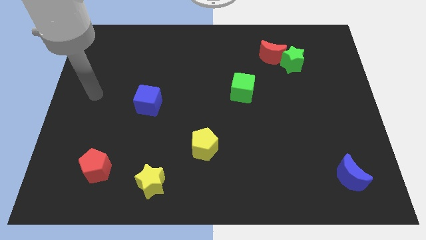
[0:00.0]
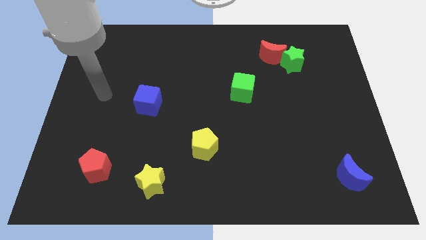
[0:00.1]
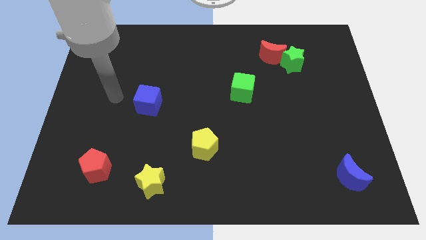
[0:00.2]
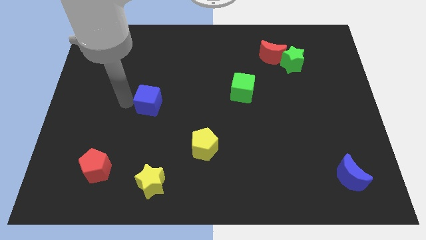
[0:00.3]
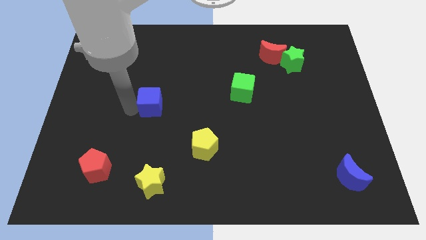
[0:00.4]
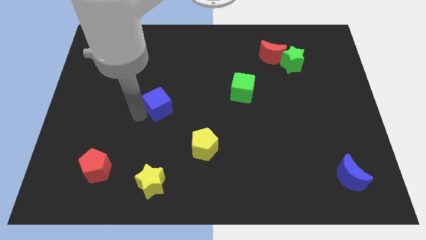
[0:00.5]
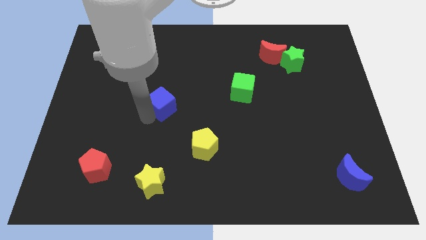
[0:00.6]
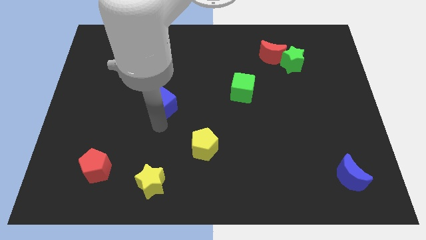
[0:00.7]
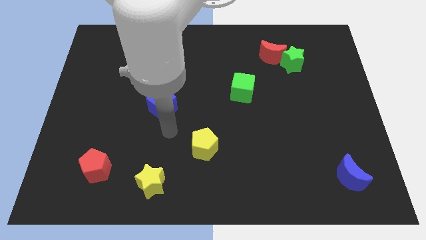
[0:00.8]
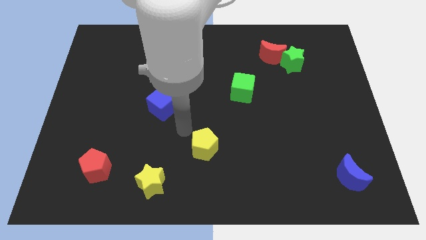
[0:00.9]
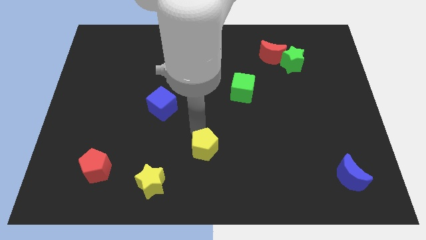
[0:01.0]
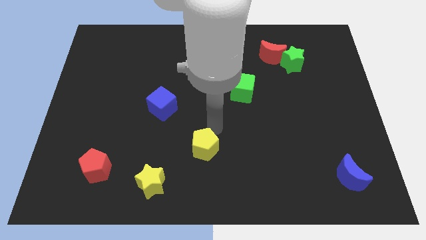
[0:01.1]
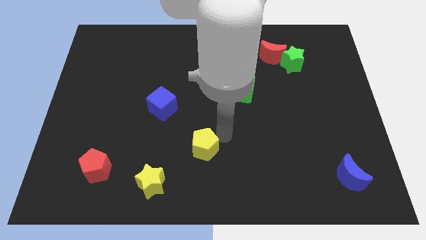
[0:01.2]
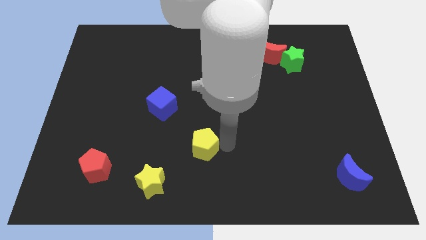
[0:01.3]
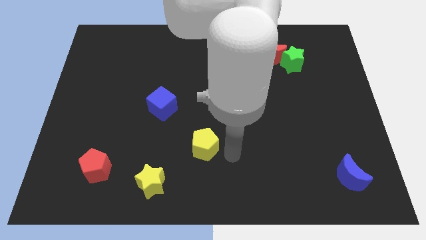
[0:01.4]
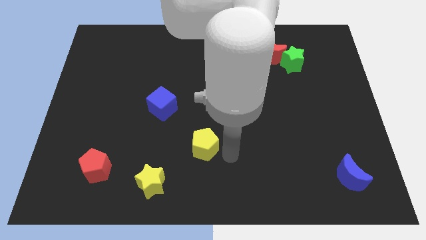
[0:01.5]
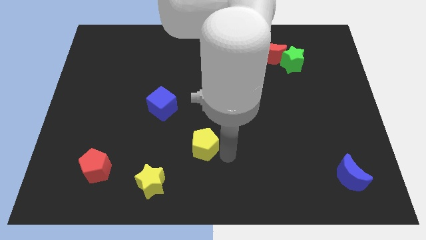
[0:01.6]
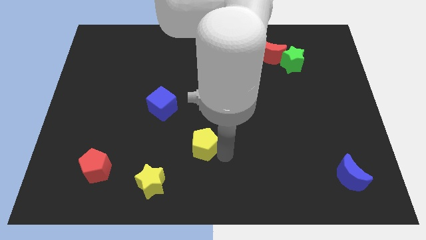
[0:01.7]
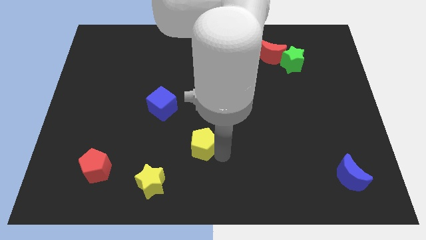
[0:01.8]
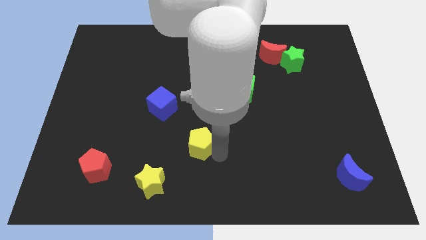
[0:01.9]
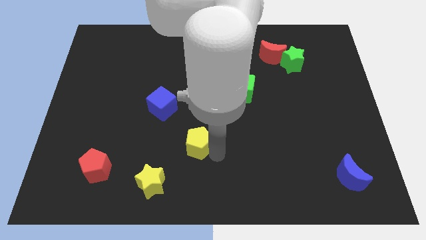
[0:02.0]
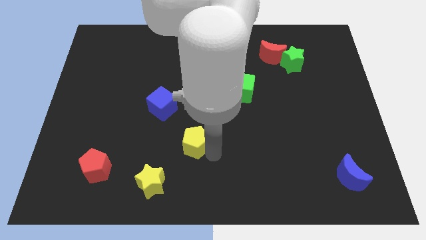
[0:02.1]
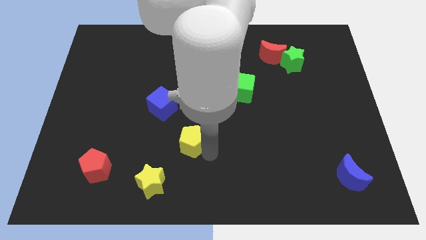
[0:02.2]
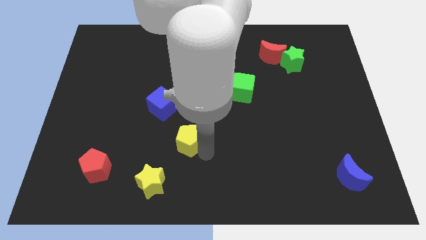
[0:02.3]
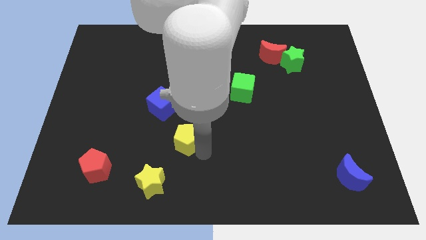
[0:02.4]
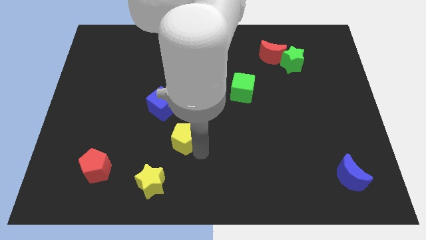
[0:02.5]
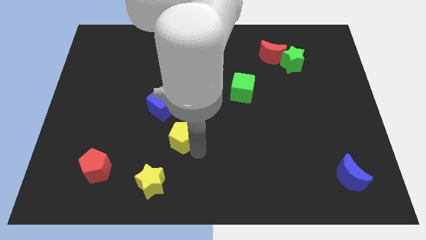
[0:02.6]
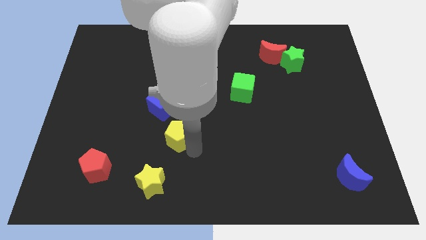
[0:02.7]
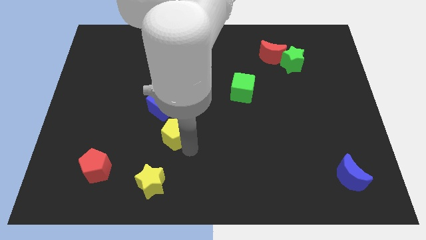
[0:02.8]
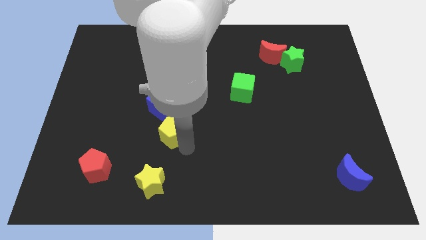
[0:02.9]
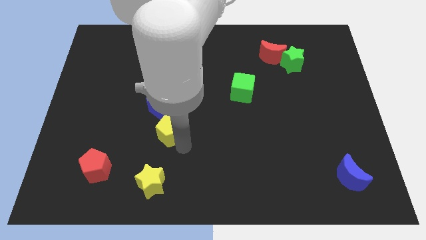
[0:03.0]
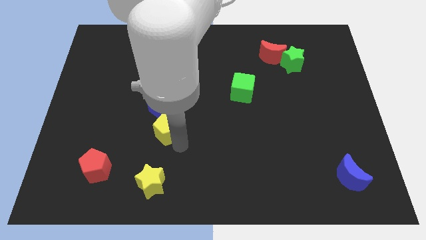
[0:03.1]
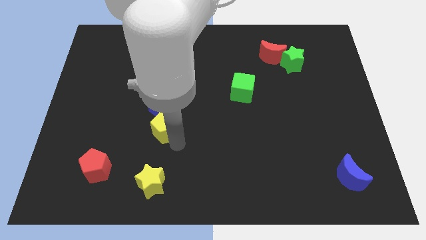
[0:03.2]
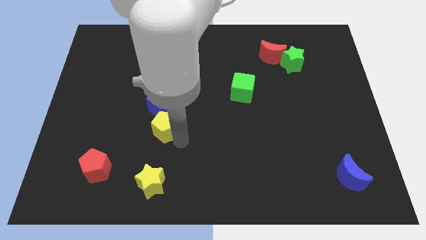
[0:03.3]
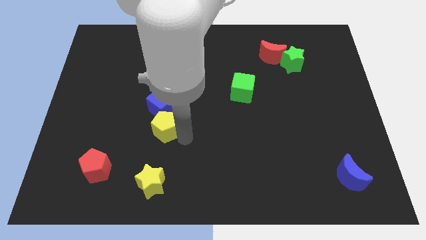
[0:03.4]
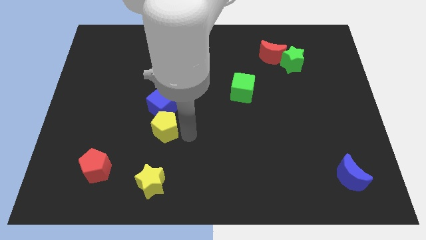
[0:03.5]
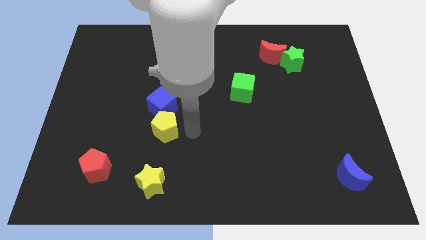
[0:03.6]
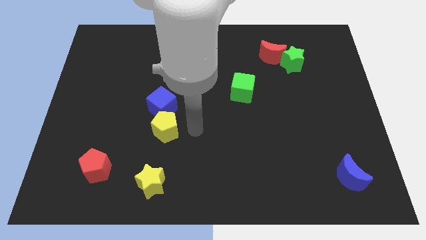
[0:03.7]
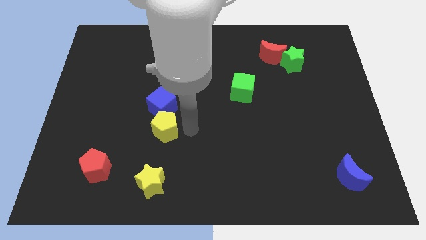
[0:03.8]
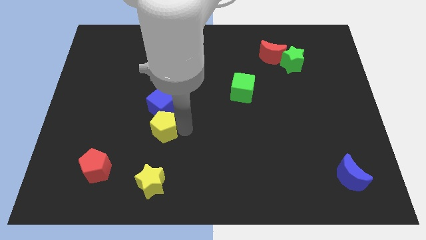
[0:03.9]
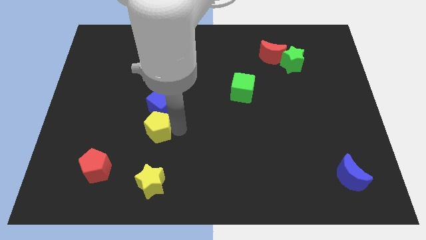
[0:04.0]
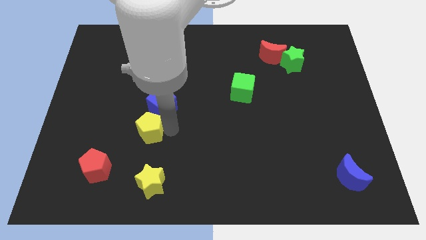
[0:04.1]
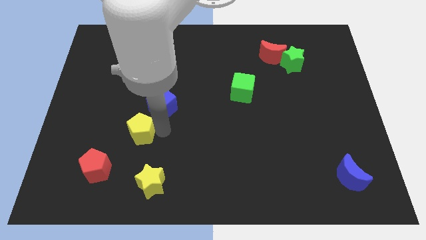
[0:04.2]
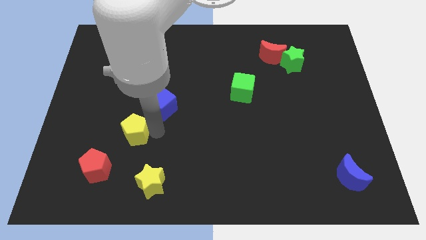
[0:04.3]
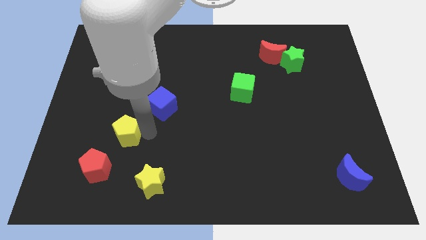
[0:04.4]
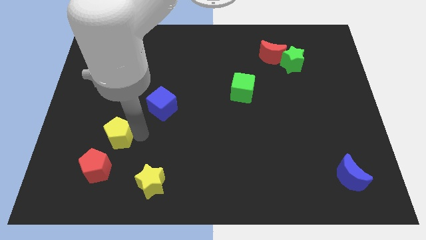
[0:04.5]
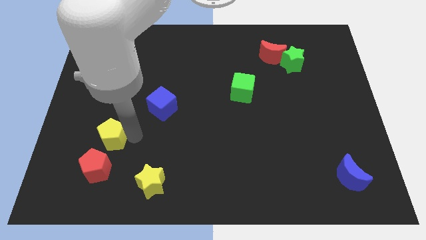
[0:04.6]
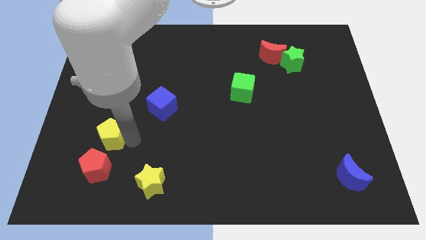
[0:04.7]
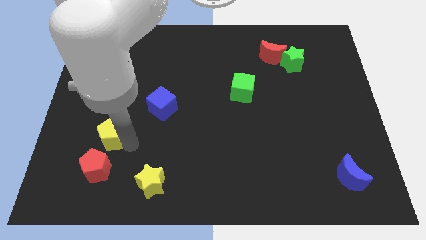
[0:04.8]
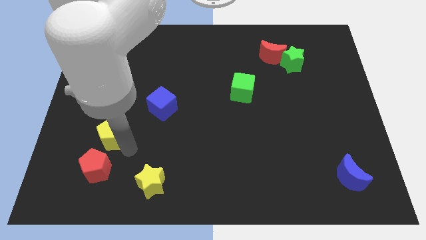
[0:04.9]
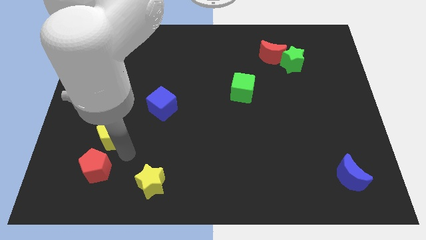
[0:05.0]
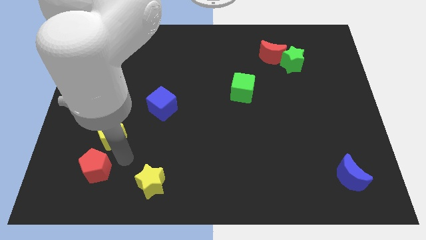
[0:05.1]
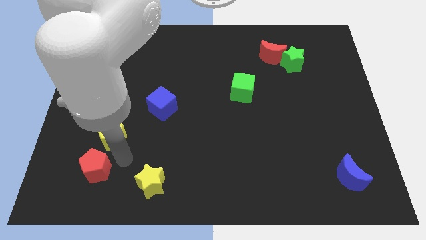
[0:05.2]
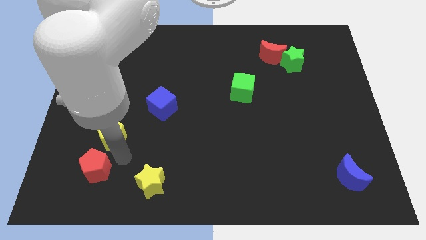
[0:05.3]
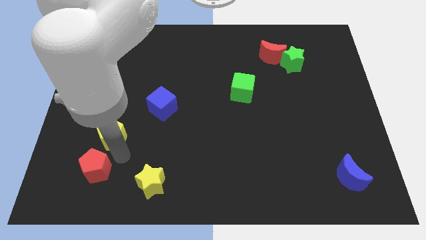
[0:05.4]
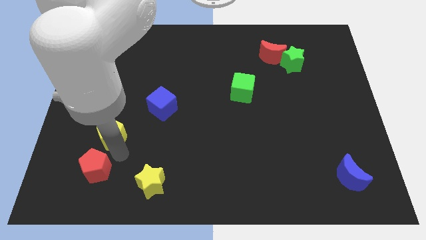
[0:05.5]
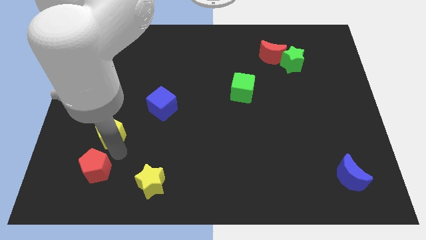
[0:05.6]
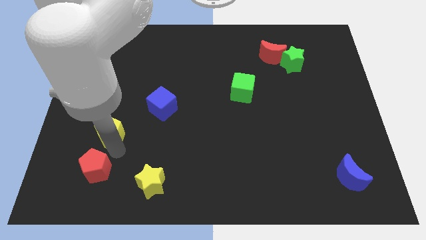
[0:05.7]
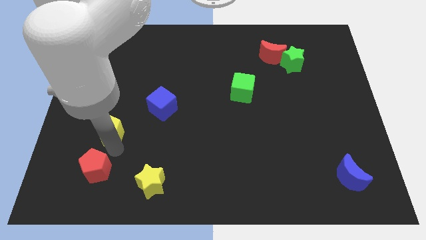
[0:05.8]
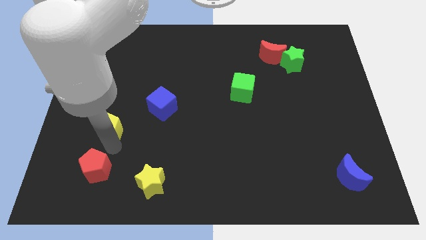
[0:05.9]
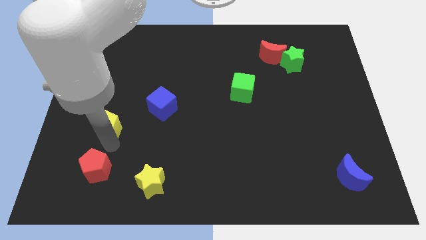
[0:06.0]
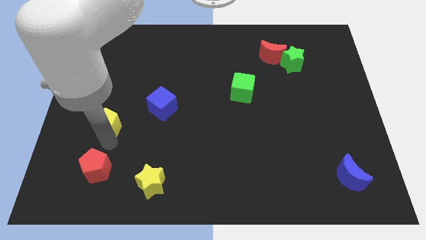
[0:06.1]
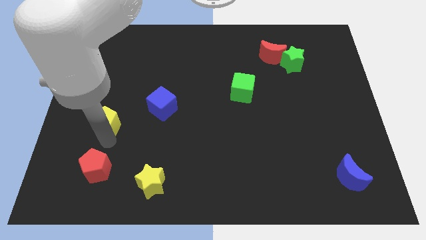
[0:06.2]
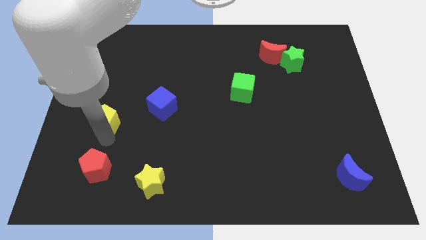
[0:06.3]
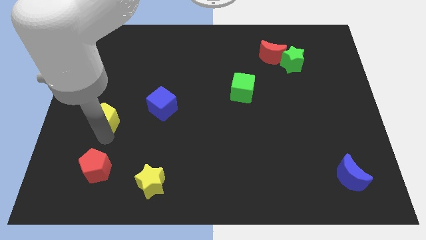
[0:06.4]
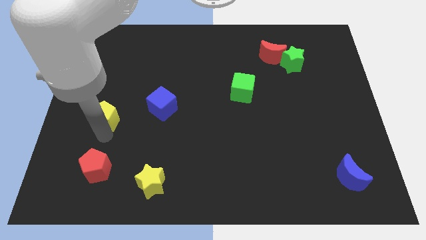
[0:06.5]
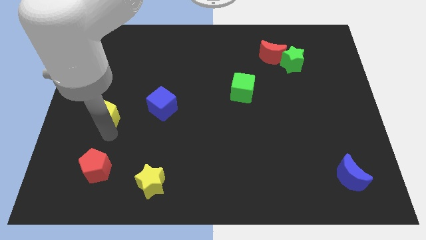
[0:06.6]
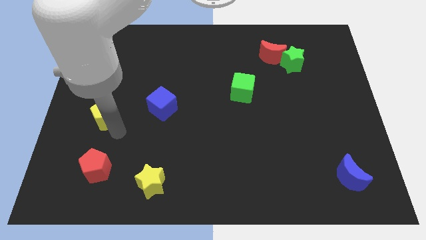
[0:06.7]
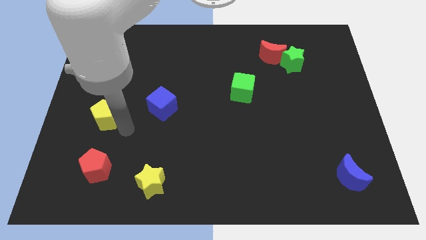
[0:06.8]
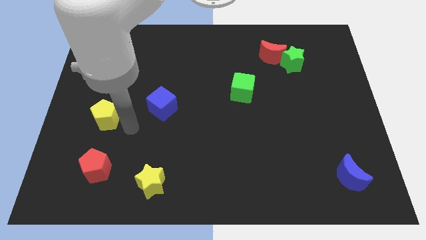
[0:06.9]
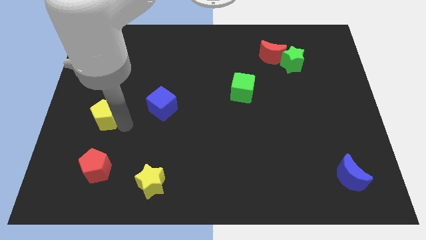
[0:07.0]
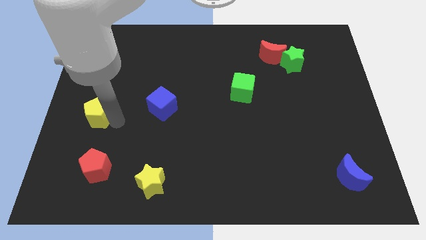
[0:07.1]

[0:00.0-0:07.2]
push the yellow pentagon to the left side of the board
